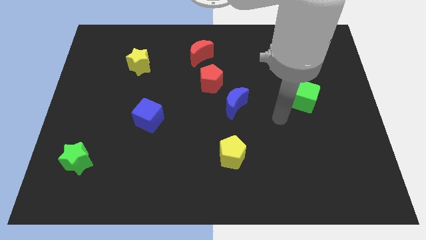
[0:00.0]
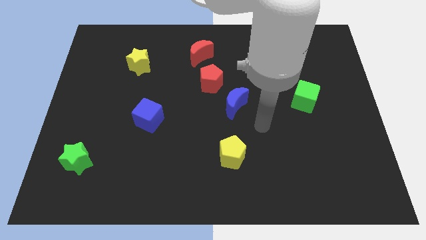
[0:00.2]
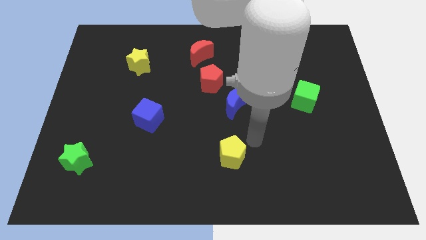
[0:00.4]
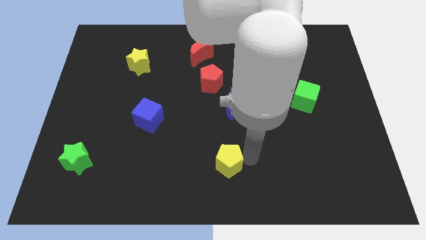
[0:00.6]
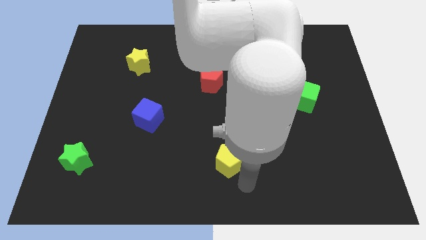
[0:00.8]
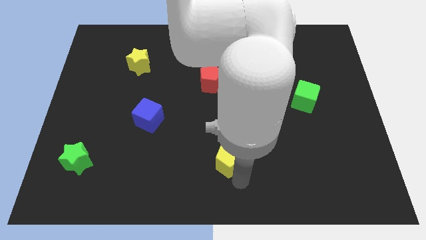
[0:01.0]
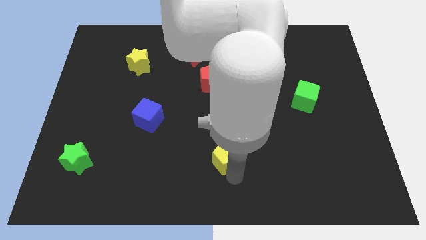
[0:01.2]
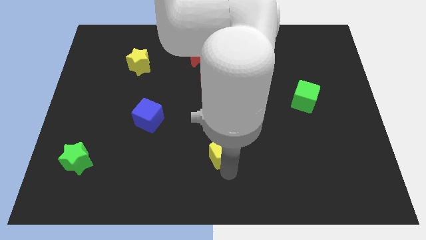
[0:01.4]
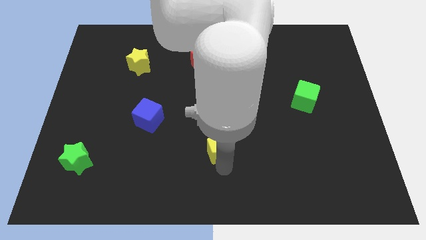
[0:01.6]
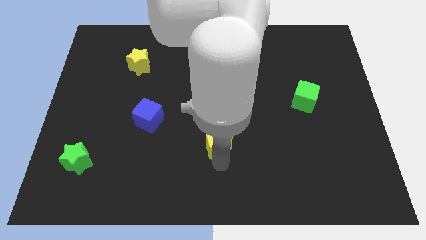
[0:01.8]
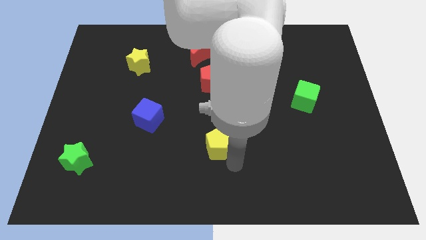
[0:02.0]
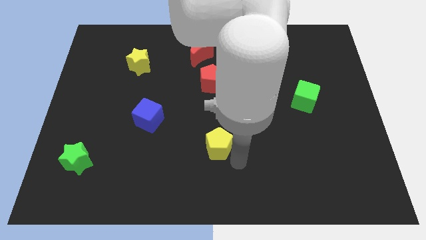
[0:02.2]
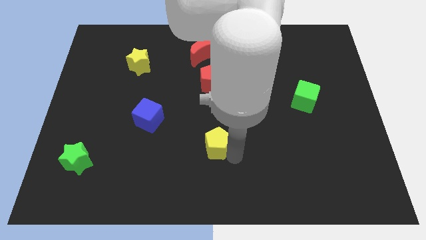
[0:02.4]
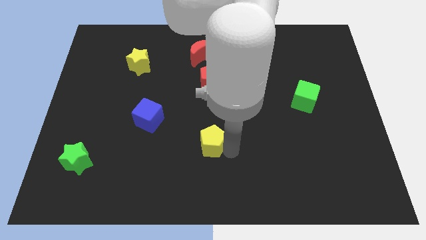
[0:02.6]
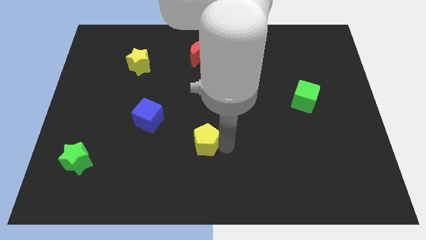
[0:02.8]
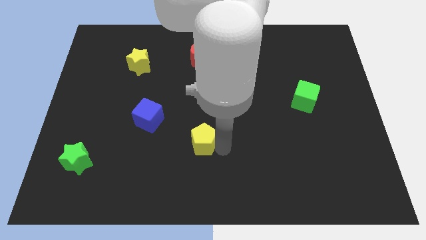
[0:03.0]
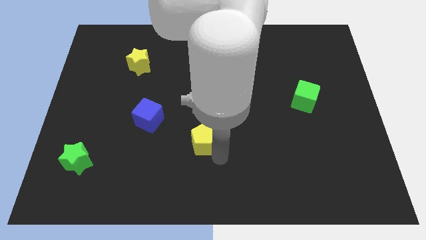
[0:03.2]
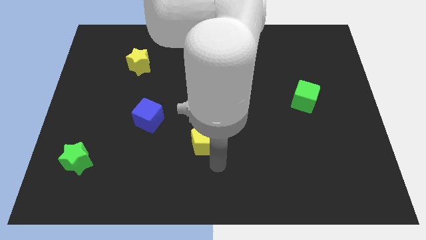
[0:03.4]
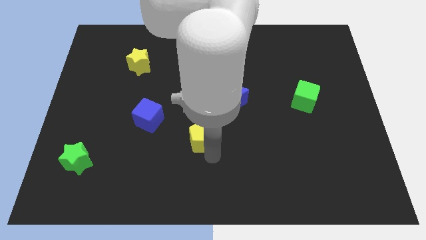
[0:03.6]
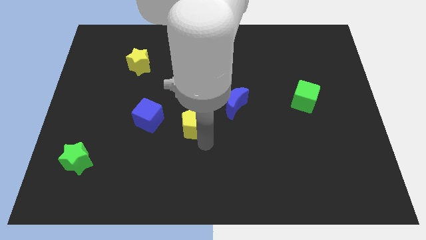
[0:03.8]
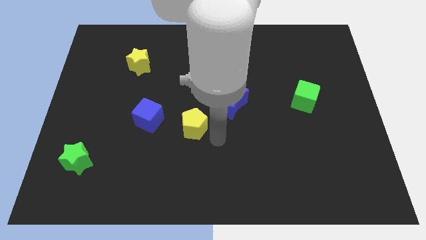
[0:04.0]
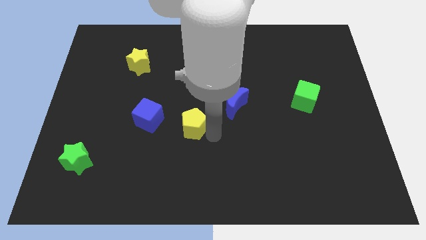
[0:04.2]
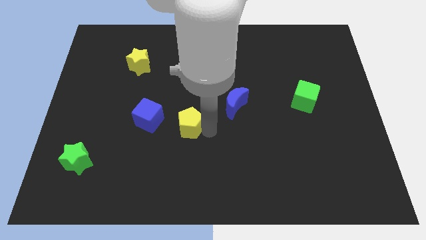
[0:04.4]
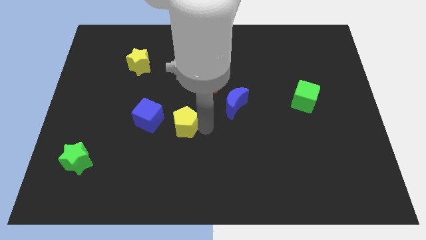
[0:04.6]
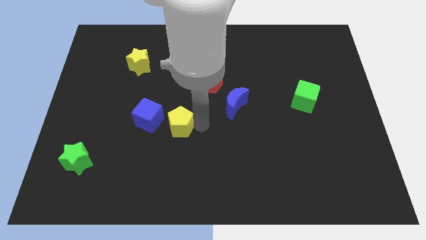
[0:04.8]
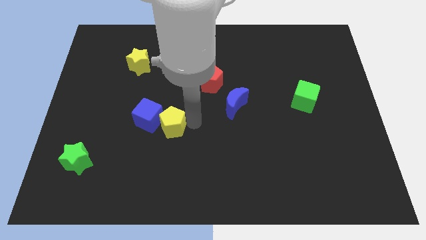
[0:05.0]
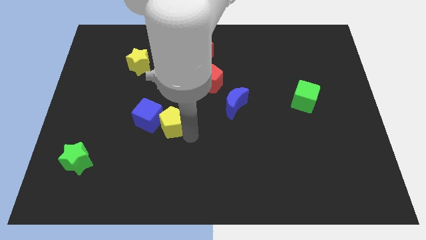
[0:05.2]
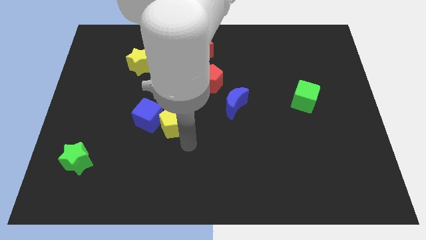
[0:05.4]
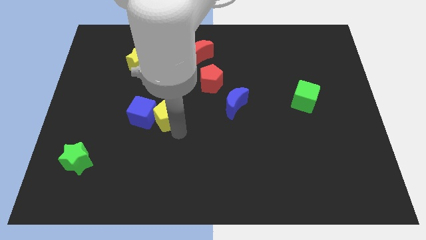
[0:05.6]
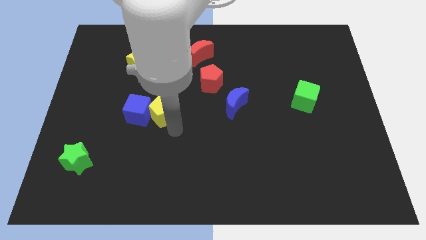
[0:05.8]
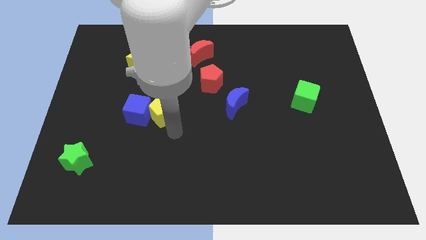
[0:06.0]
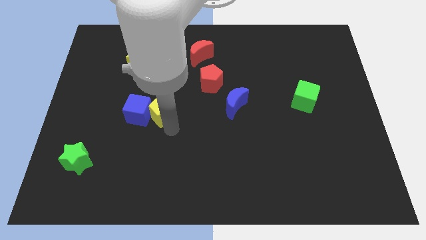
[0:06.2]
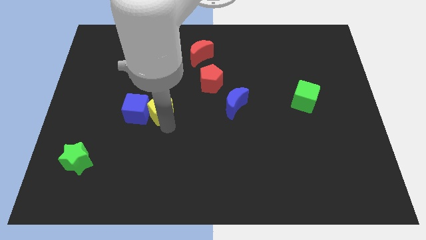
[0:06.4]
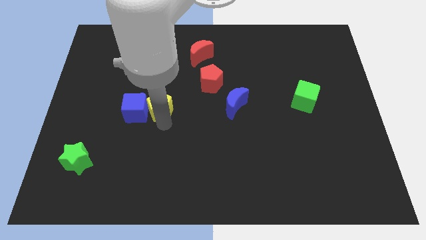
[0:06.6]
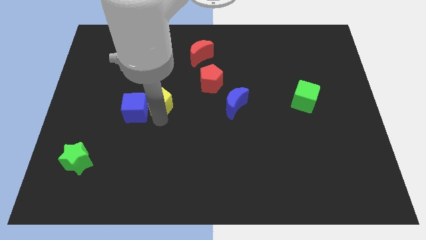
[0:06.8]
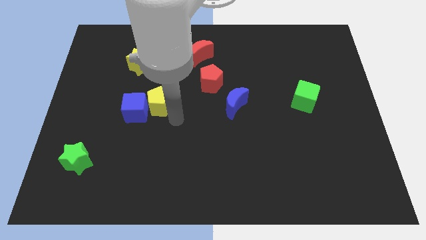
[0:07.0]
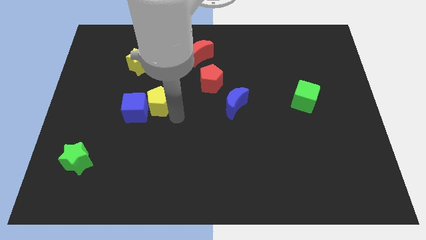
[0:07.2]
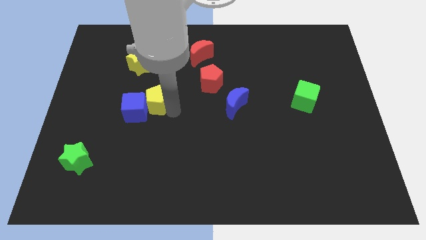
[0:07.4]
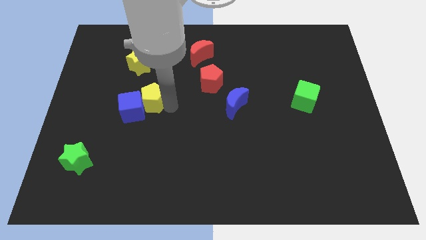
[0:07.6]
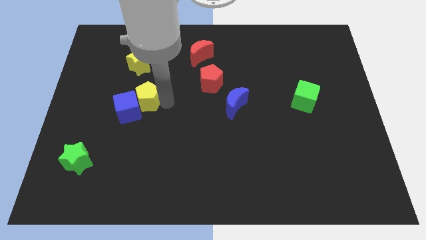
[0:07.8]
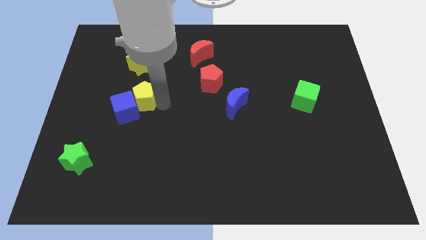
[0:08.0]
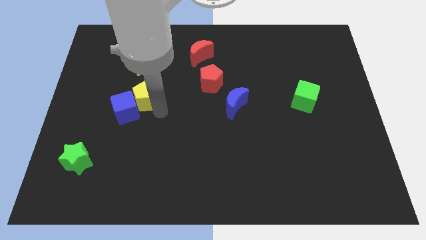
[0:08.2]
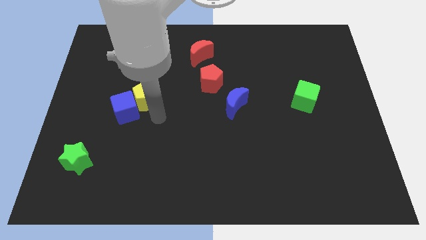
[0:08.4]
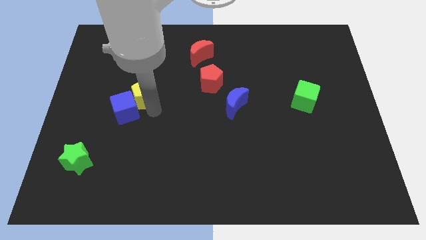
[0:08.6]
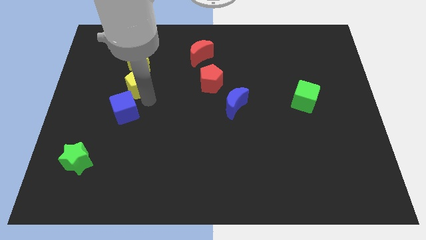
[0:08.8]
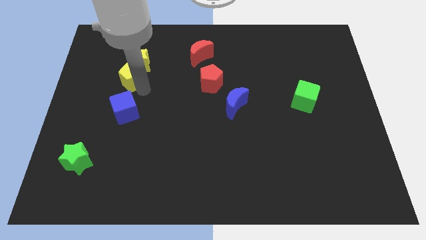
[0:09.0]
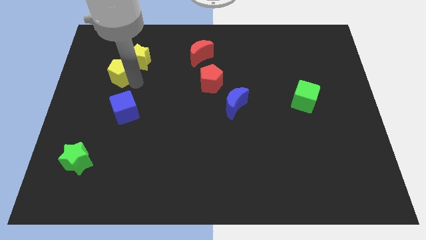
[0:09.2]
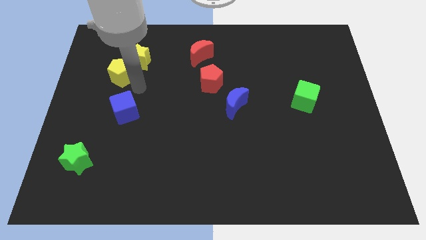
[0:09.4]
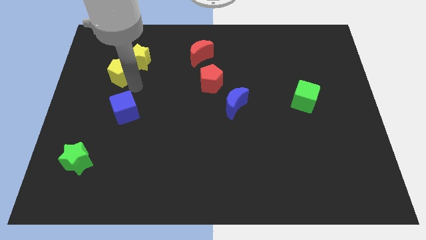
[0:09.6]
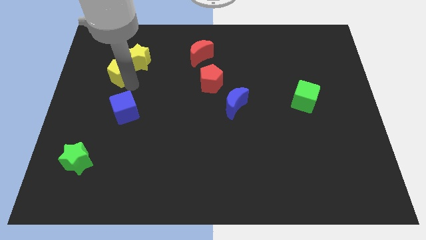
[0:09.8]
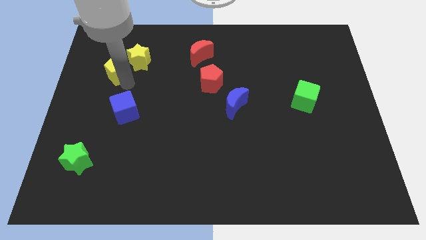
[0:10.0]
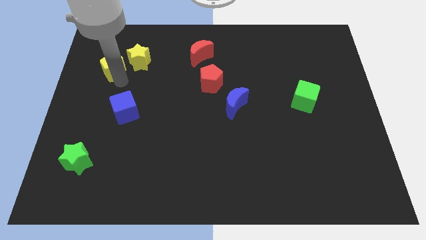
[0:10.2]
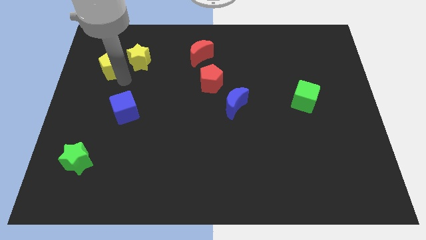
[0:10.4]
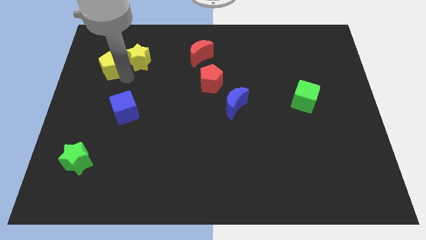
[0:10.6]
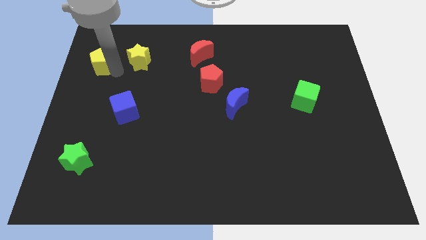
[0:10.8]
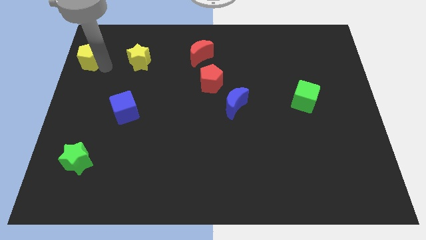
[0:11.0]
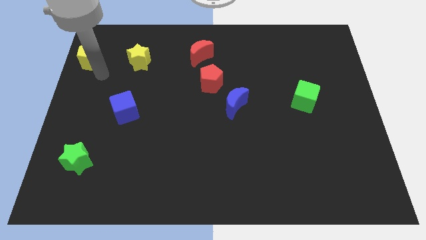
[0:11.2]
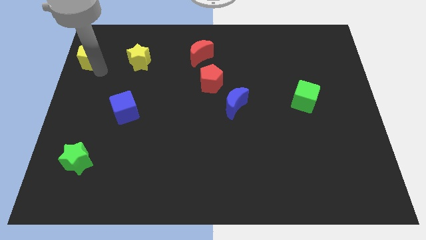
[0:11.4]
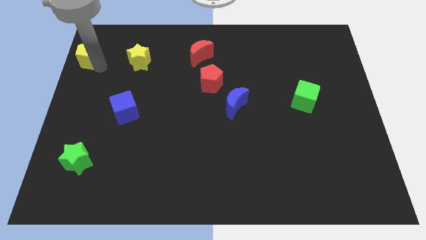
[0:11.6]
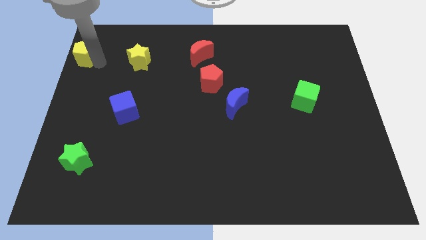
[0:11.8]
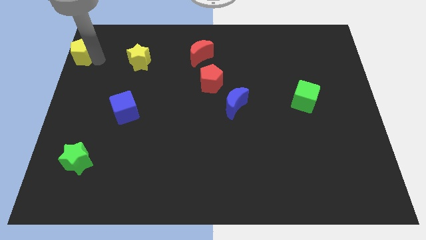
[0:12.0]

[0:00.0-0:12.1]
push the yellow pentagon to the top left

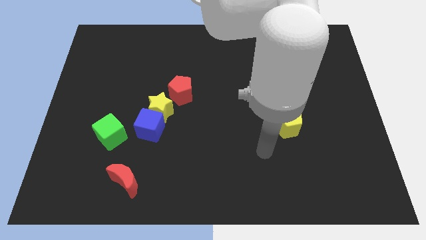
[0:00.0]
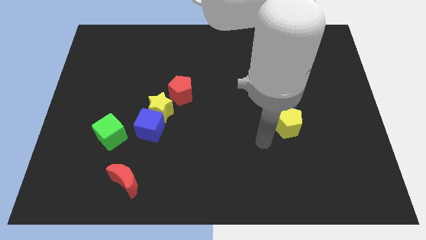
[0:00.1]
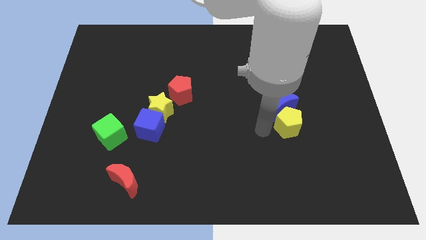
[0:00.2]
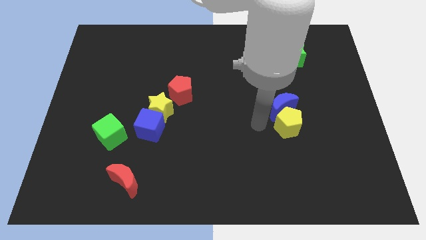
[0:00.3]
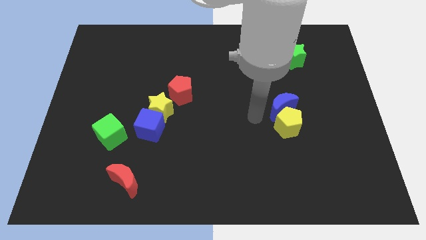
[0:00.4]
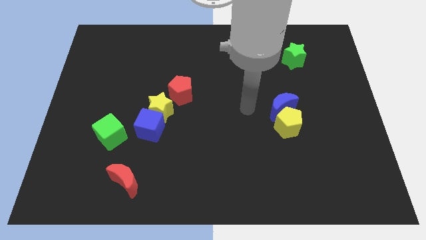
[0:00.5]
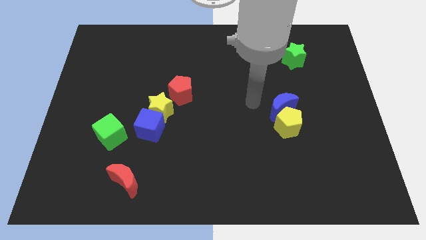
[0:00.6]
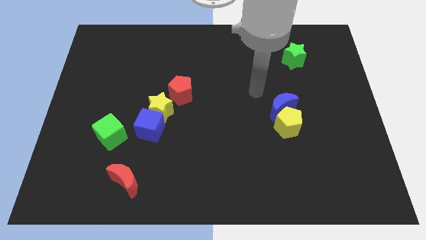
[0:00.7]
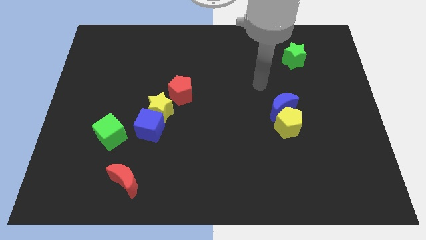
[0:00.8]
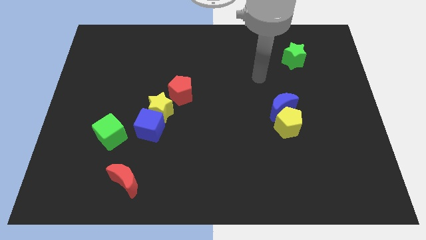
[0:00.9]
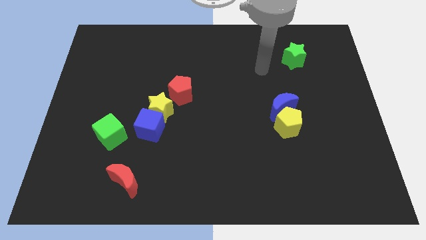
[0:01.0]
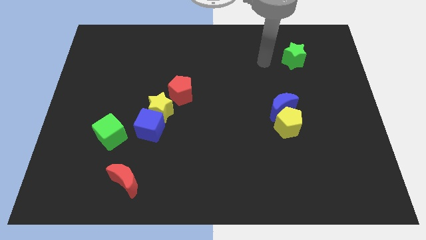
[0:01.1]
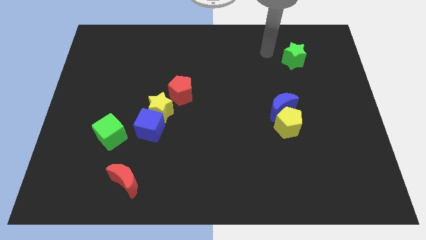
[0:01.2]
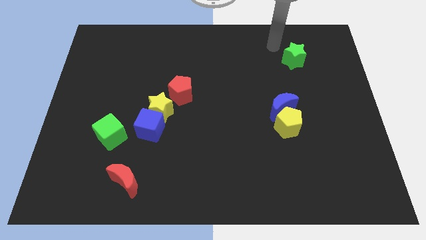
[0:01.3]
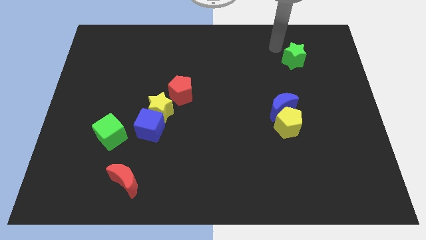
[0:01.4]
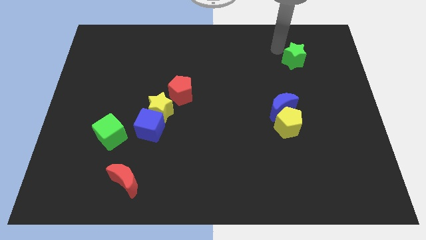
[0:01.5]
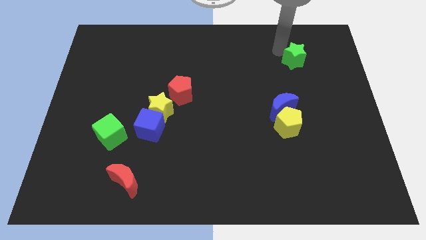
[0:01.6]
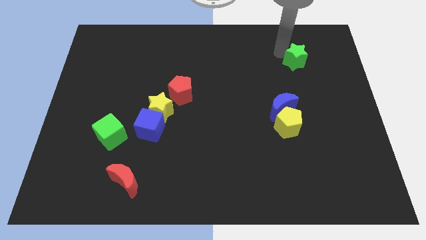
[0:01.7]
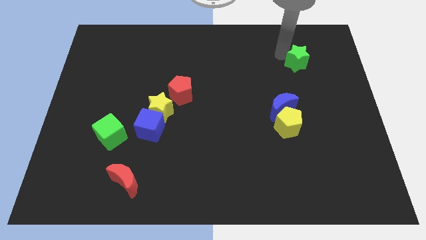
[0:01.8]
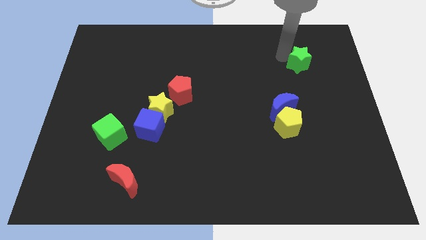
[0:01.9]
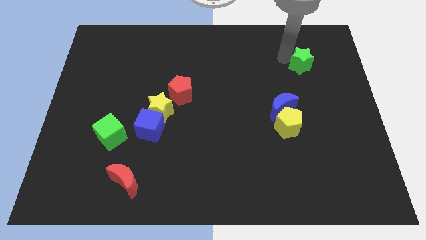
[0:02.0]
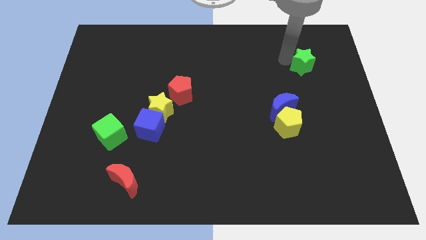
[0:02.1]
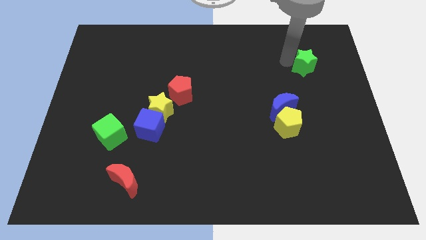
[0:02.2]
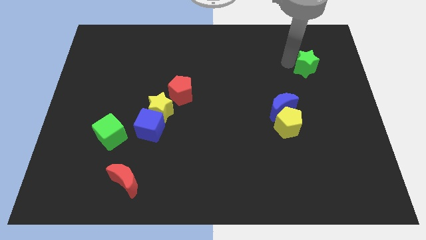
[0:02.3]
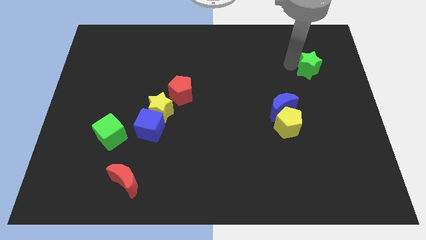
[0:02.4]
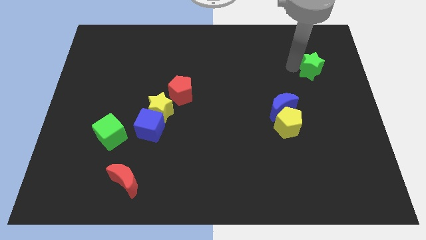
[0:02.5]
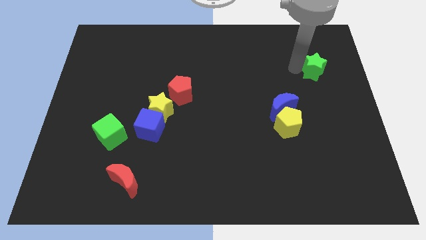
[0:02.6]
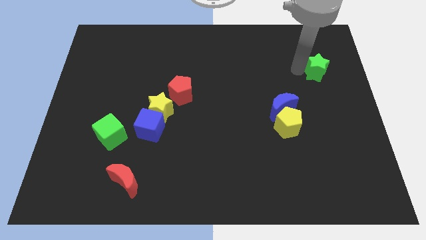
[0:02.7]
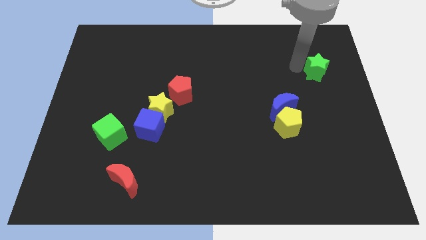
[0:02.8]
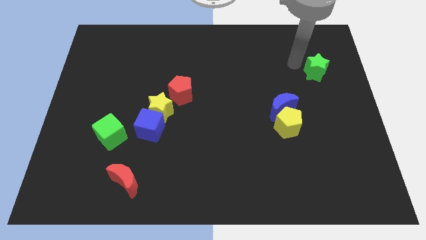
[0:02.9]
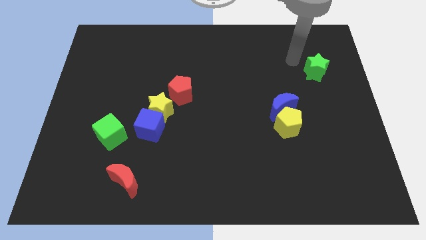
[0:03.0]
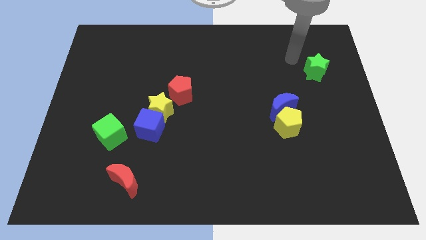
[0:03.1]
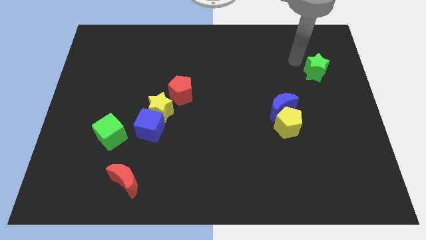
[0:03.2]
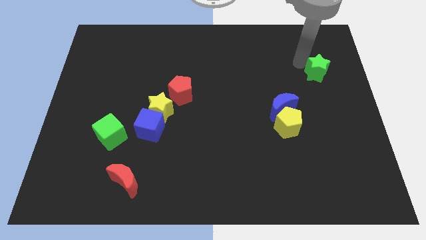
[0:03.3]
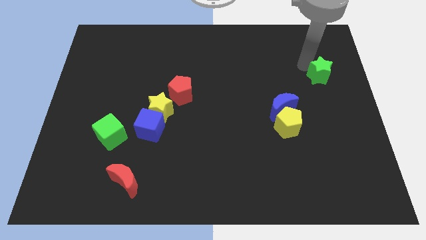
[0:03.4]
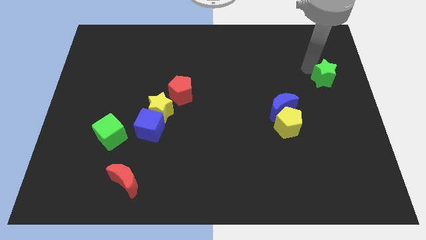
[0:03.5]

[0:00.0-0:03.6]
move the green star to the right side
